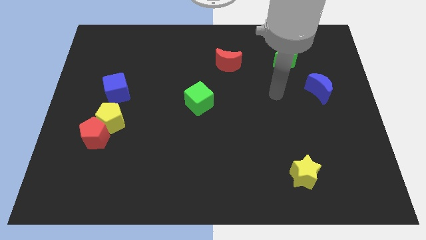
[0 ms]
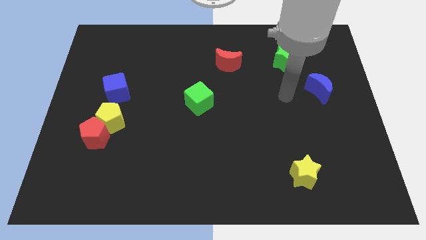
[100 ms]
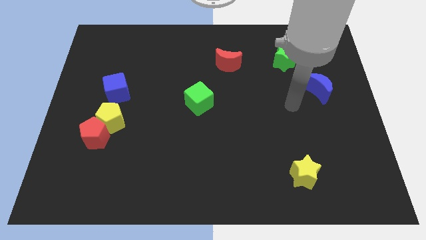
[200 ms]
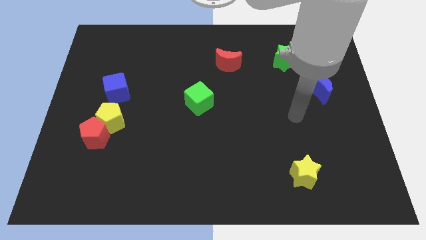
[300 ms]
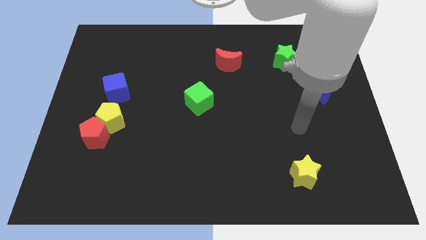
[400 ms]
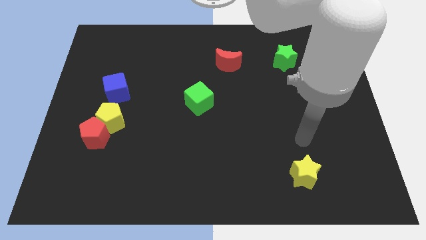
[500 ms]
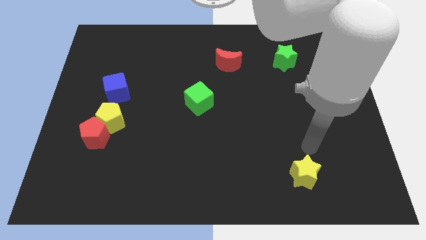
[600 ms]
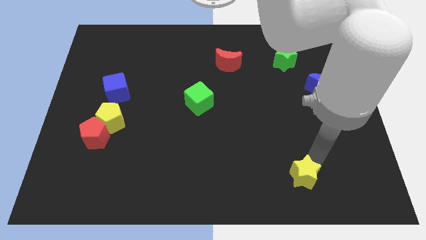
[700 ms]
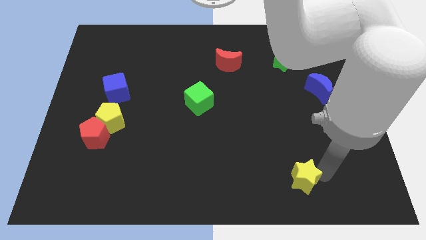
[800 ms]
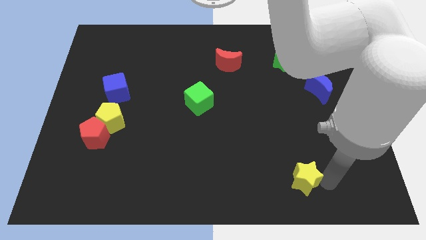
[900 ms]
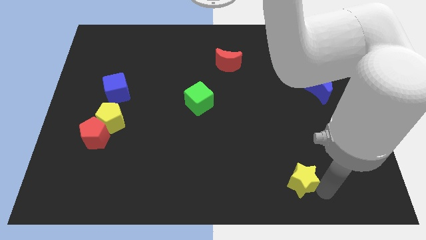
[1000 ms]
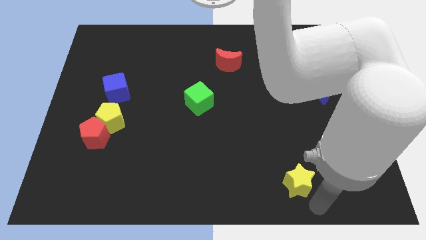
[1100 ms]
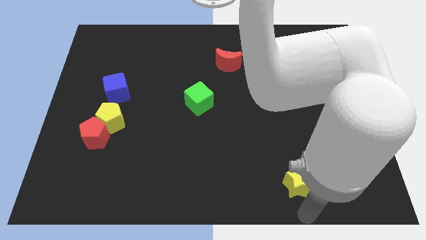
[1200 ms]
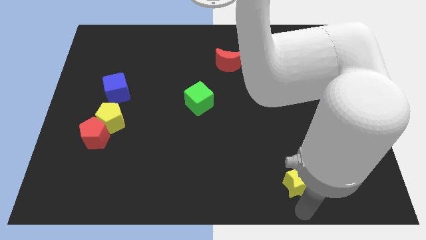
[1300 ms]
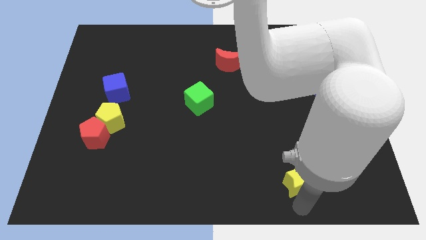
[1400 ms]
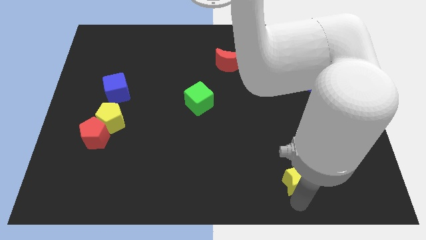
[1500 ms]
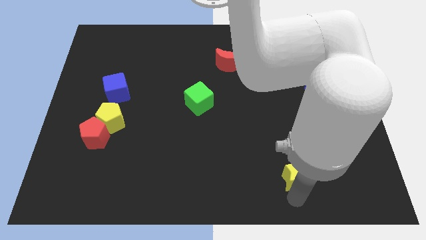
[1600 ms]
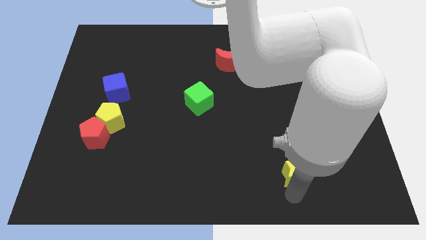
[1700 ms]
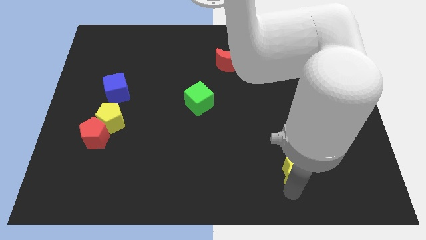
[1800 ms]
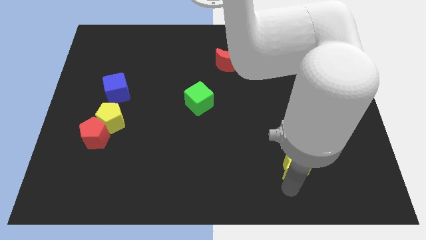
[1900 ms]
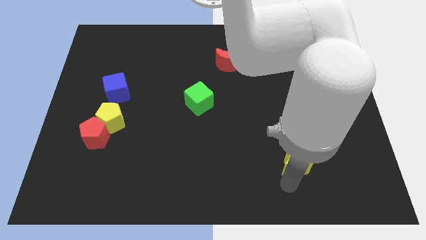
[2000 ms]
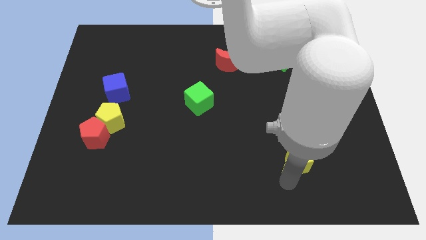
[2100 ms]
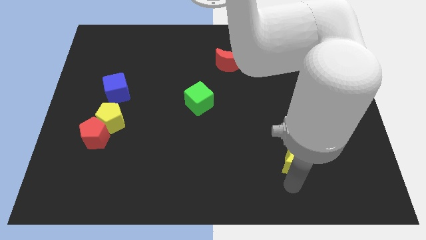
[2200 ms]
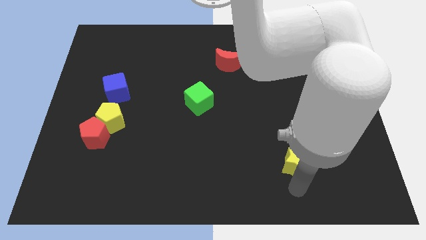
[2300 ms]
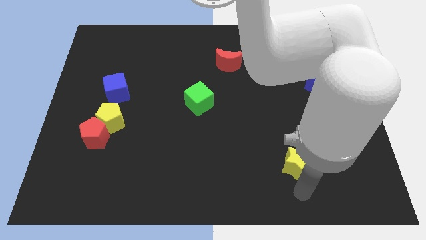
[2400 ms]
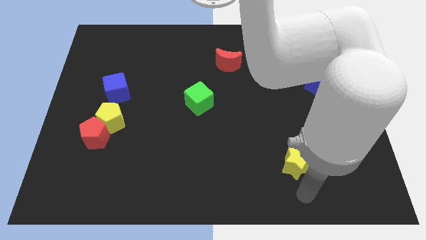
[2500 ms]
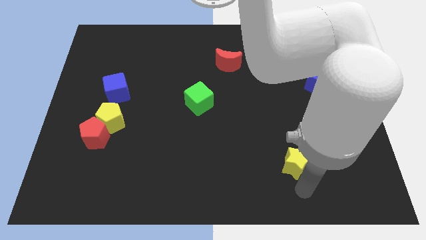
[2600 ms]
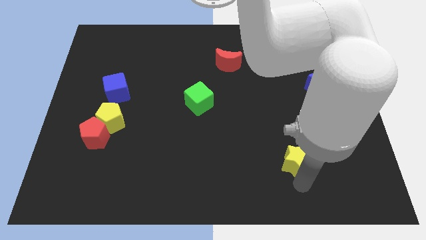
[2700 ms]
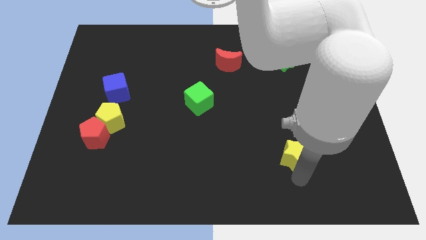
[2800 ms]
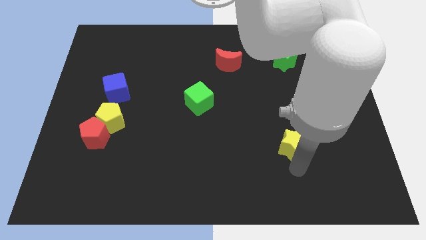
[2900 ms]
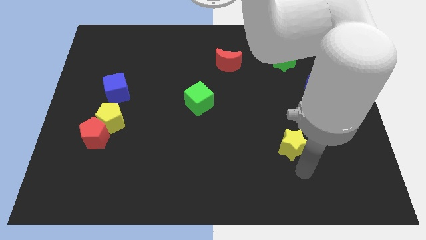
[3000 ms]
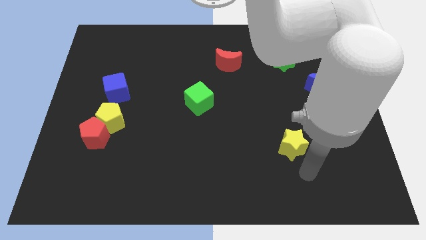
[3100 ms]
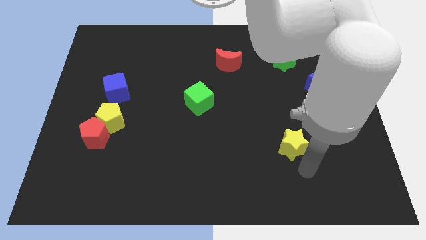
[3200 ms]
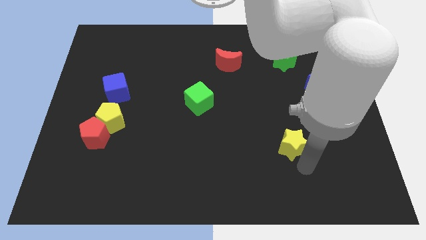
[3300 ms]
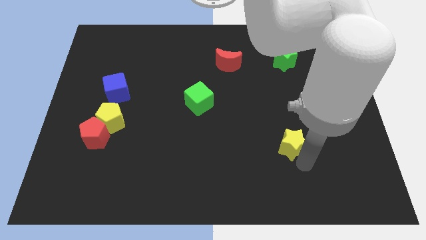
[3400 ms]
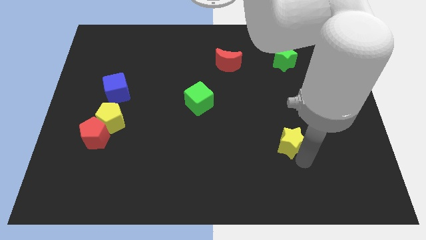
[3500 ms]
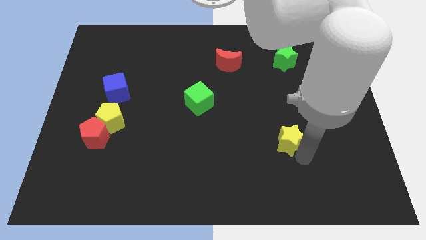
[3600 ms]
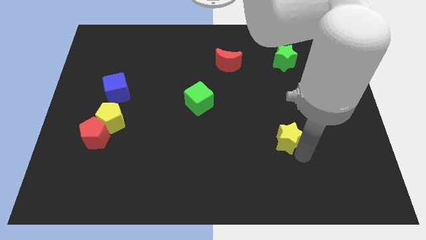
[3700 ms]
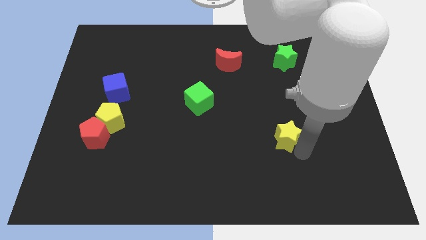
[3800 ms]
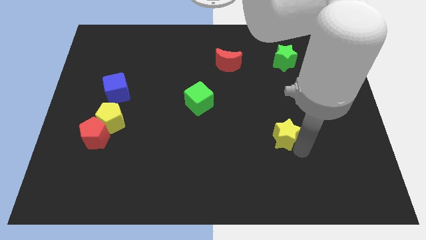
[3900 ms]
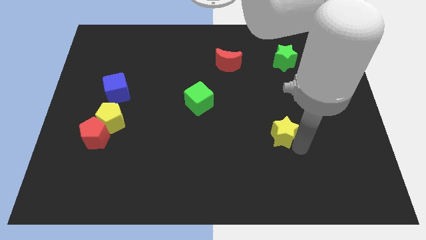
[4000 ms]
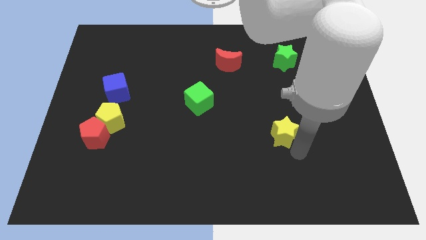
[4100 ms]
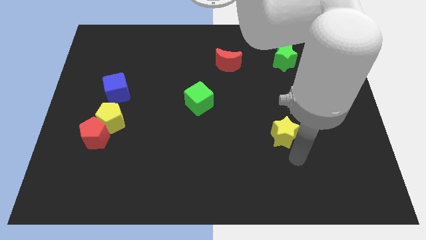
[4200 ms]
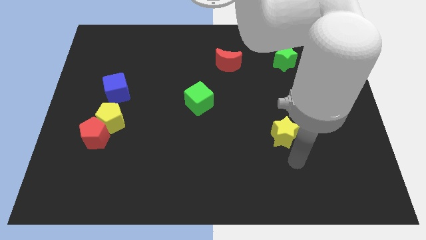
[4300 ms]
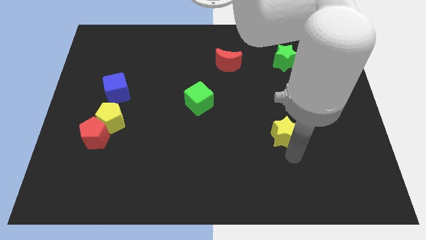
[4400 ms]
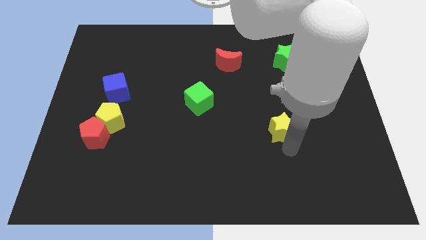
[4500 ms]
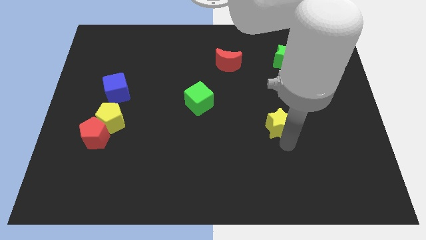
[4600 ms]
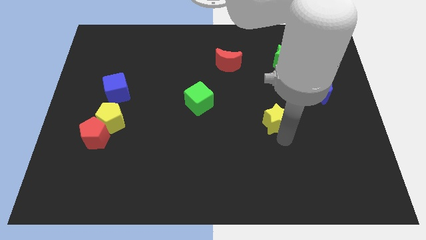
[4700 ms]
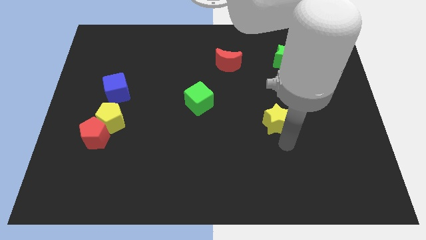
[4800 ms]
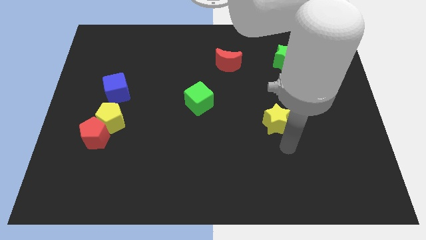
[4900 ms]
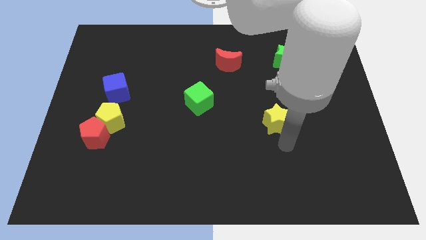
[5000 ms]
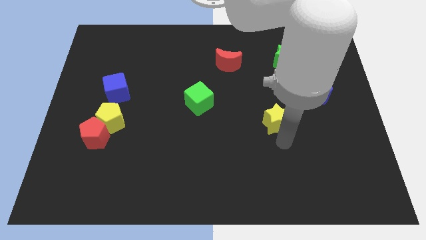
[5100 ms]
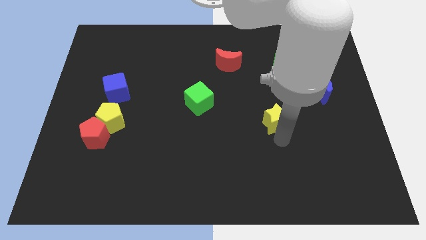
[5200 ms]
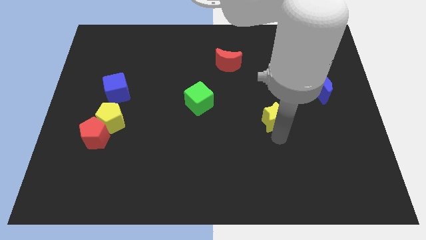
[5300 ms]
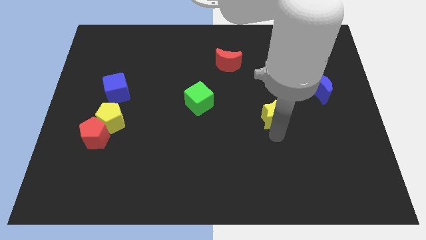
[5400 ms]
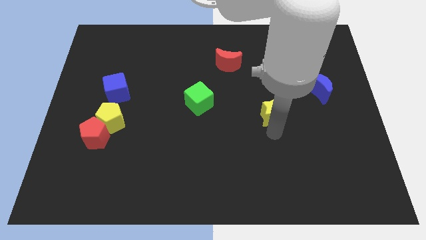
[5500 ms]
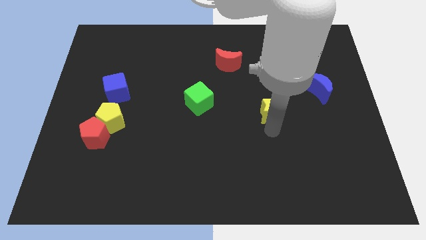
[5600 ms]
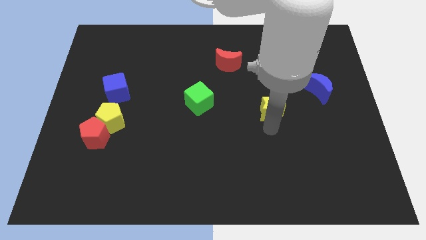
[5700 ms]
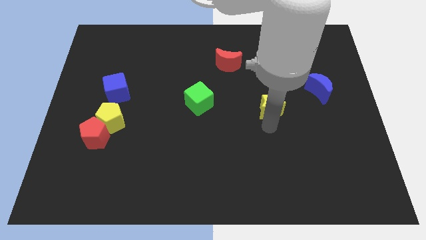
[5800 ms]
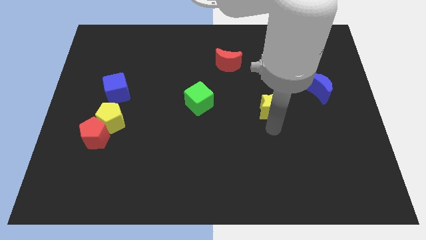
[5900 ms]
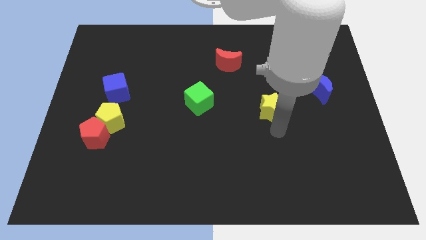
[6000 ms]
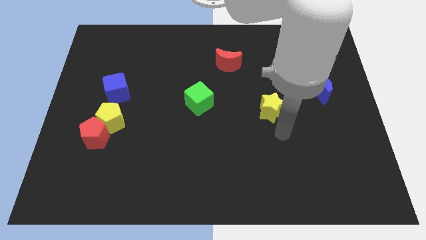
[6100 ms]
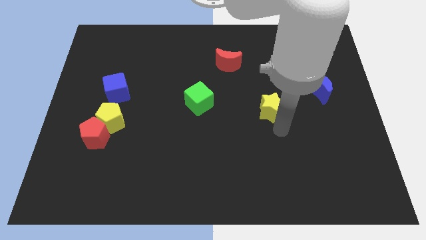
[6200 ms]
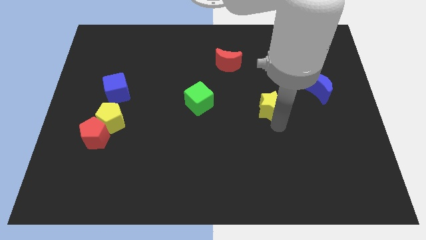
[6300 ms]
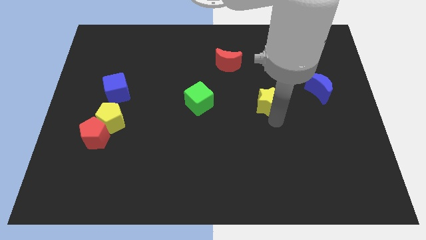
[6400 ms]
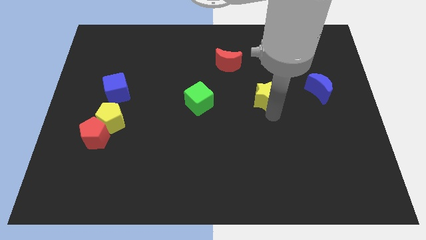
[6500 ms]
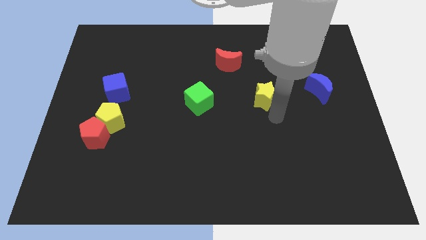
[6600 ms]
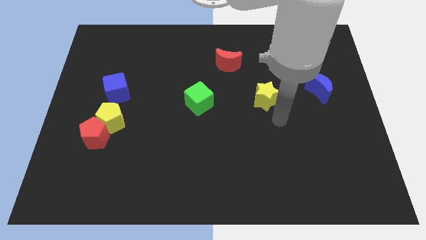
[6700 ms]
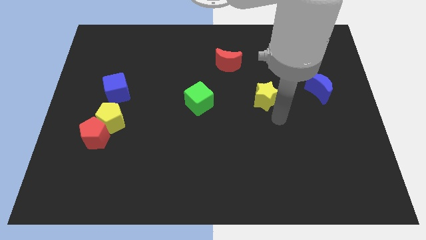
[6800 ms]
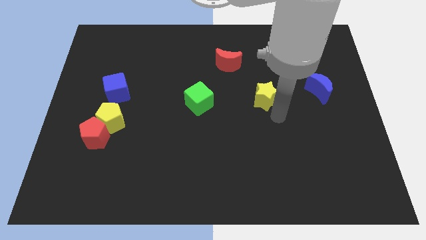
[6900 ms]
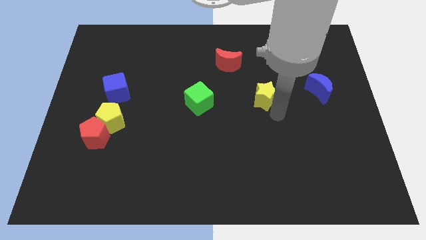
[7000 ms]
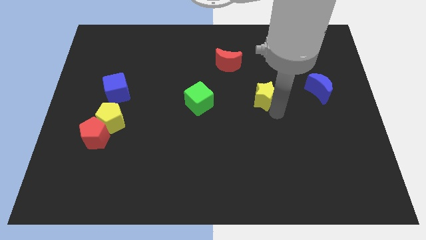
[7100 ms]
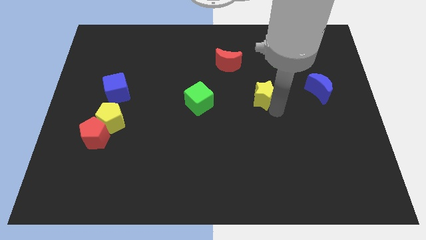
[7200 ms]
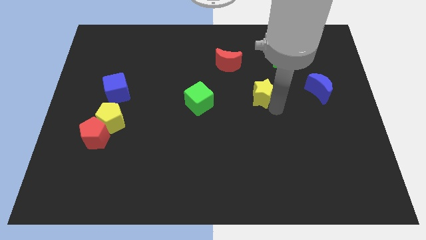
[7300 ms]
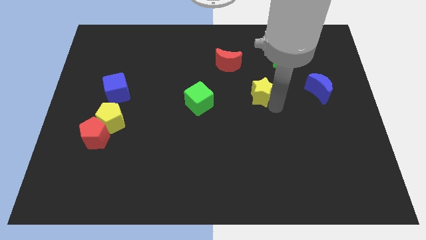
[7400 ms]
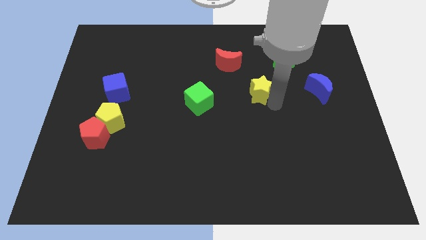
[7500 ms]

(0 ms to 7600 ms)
slide the yellow star to the bottom right of the red moon
